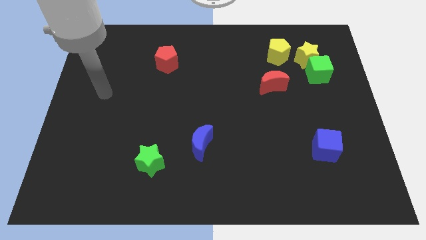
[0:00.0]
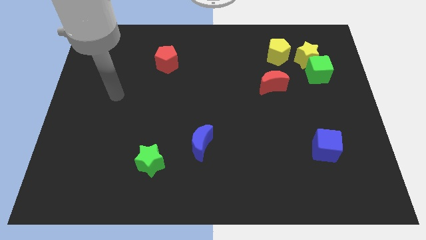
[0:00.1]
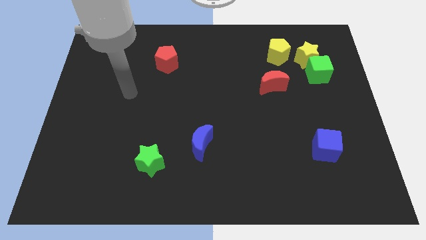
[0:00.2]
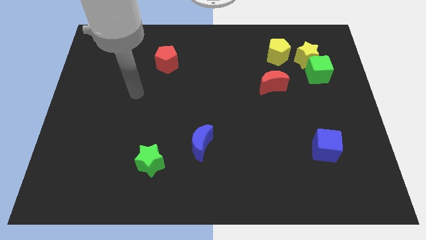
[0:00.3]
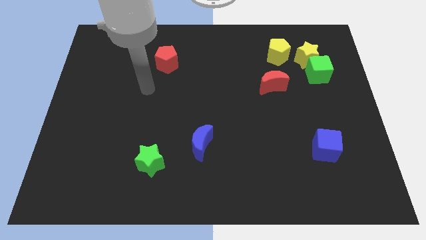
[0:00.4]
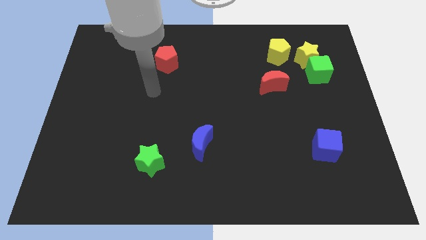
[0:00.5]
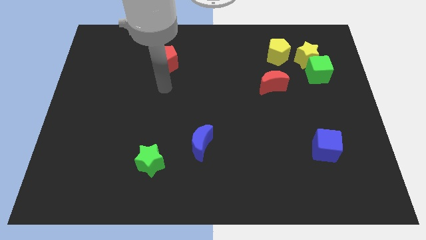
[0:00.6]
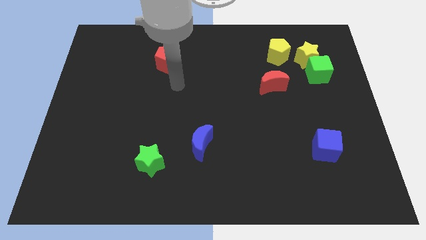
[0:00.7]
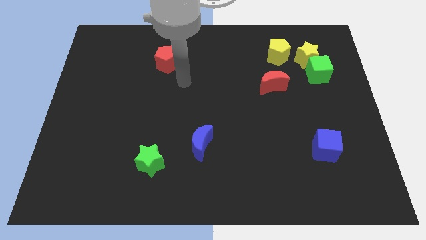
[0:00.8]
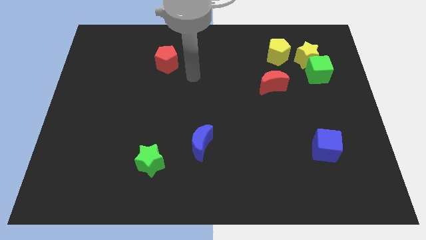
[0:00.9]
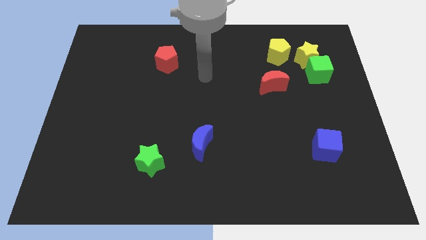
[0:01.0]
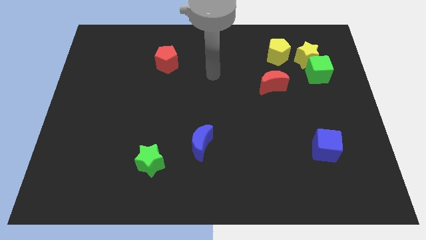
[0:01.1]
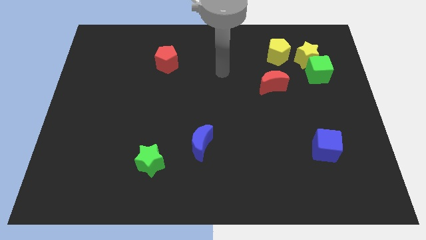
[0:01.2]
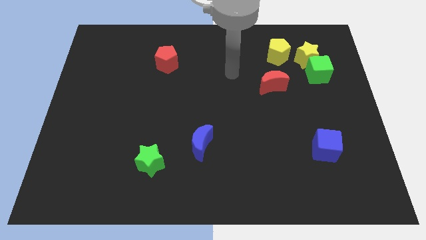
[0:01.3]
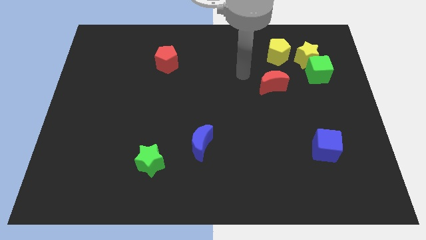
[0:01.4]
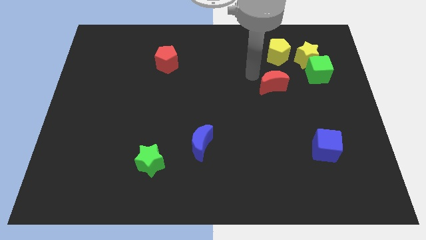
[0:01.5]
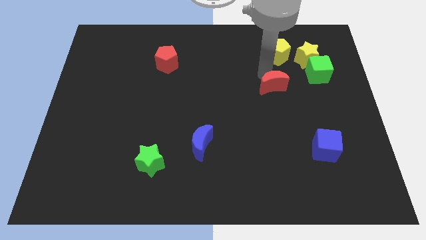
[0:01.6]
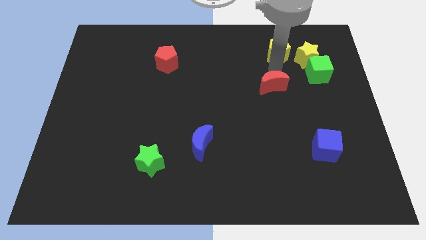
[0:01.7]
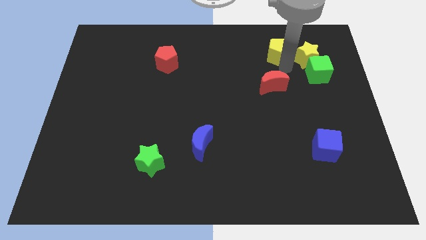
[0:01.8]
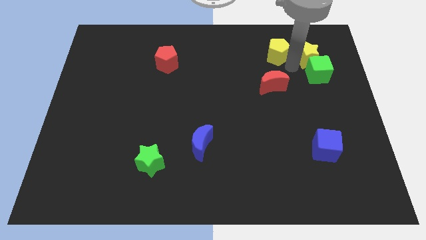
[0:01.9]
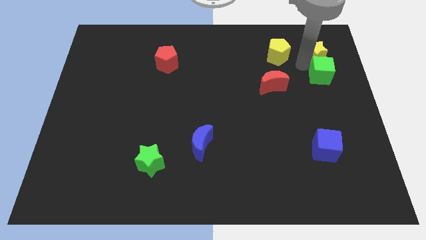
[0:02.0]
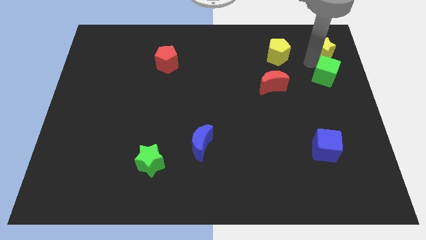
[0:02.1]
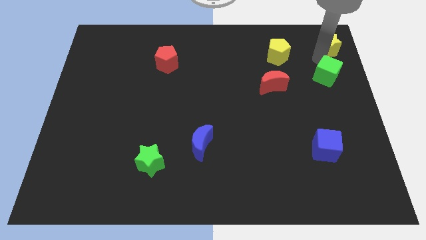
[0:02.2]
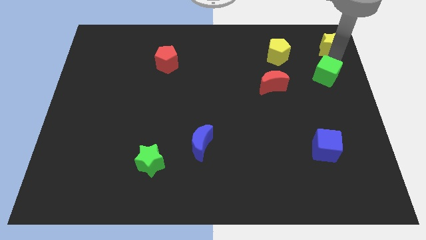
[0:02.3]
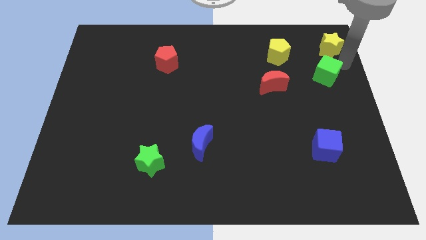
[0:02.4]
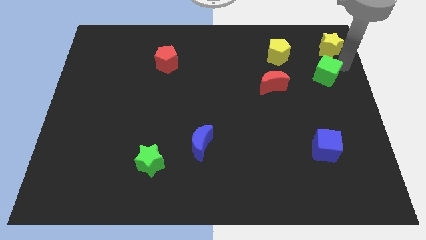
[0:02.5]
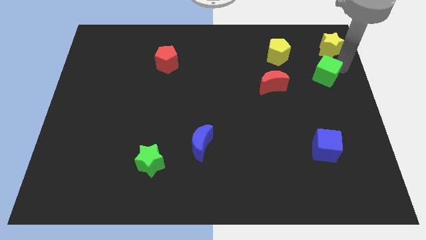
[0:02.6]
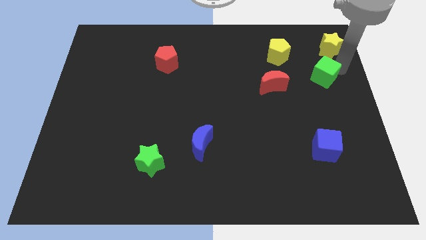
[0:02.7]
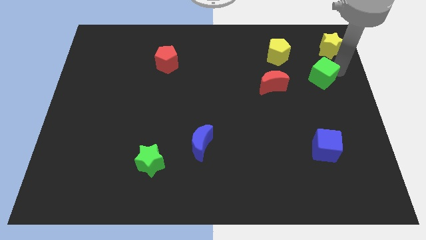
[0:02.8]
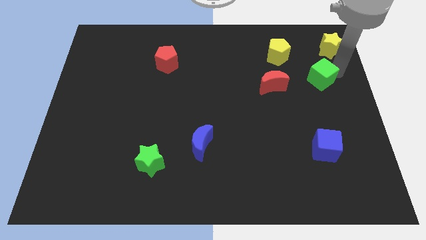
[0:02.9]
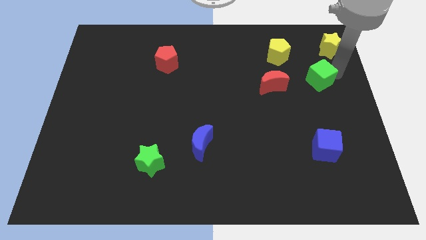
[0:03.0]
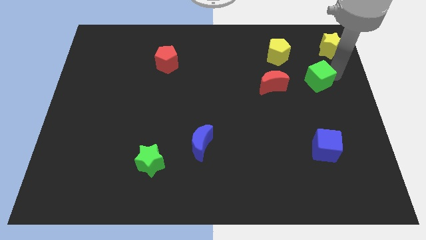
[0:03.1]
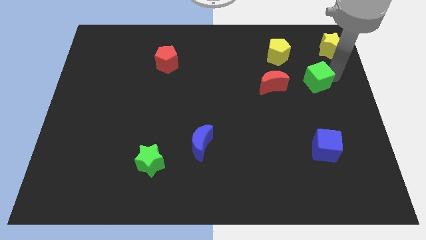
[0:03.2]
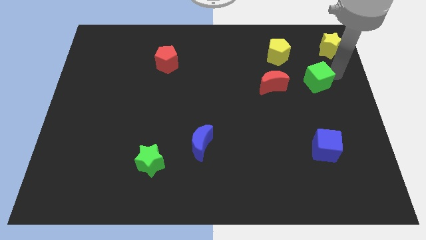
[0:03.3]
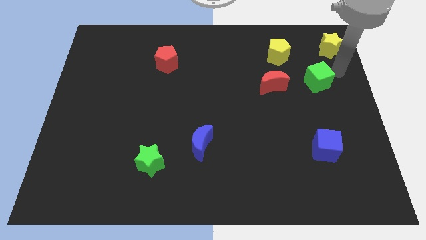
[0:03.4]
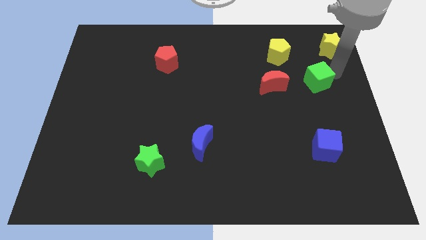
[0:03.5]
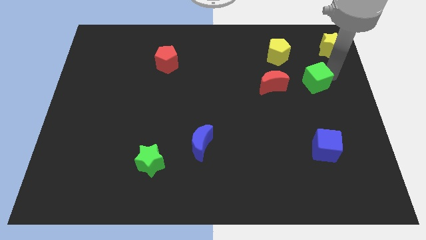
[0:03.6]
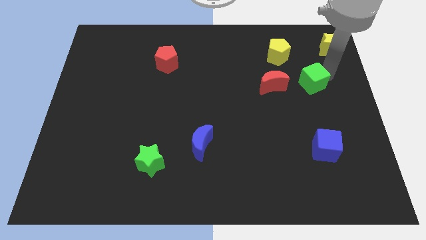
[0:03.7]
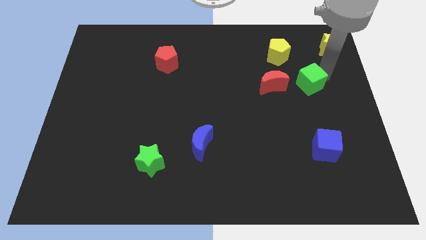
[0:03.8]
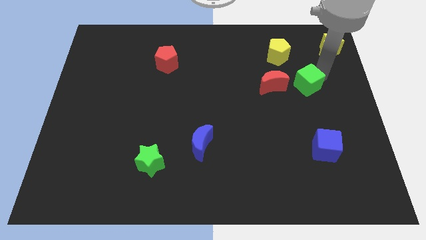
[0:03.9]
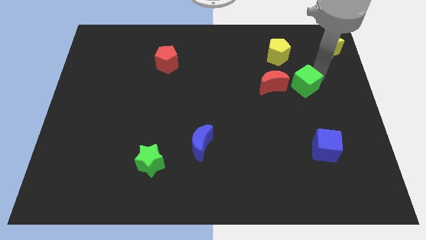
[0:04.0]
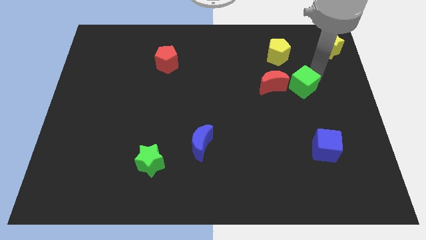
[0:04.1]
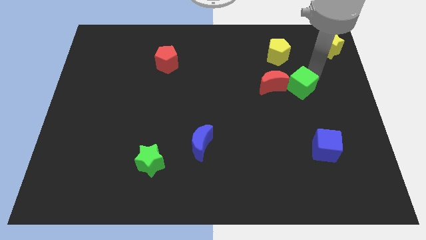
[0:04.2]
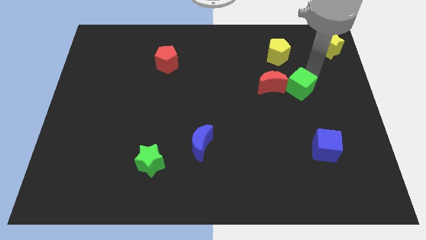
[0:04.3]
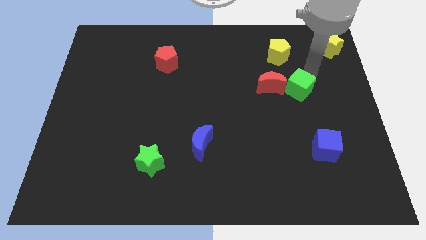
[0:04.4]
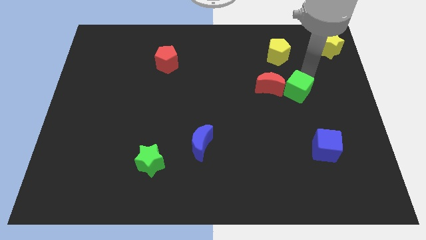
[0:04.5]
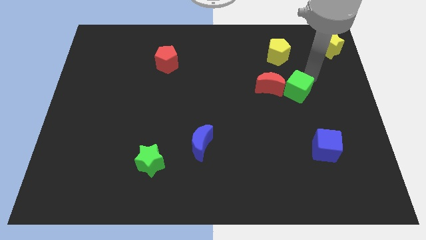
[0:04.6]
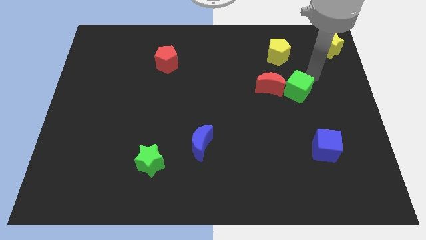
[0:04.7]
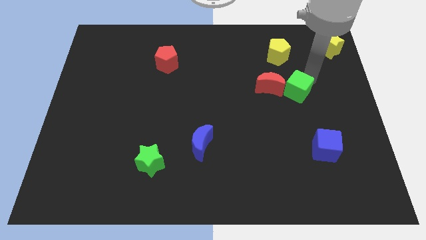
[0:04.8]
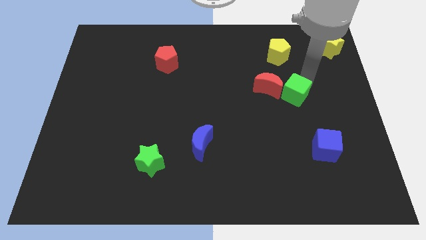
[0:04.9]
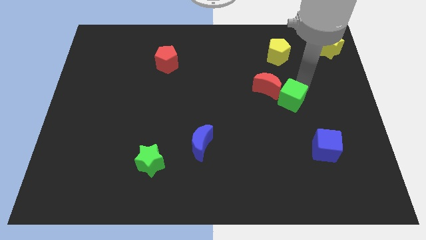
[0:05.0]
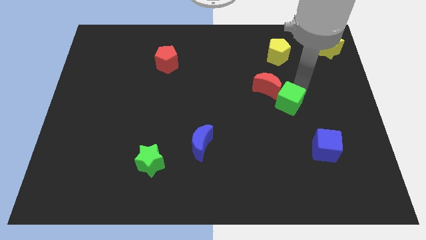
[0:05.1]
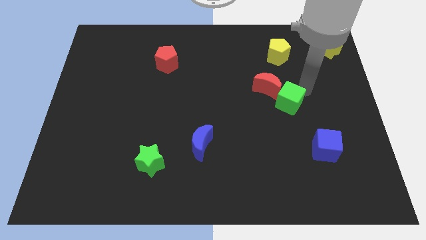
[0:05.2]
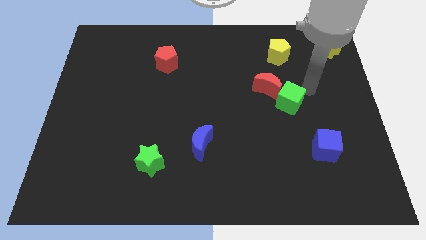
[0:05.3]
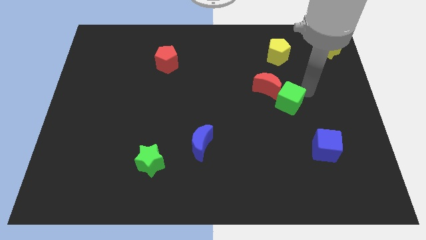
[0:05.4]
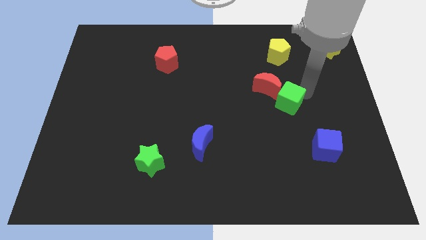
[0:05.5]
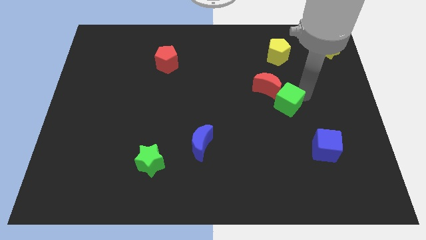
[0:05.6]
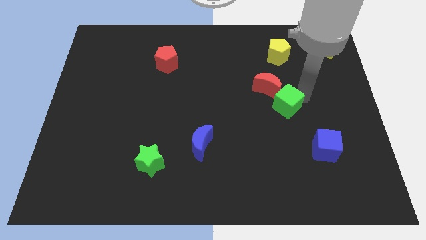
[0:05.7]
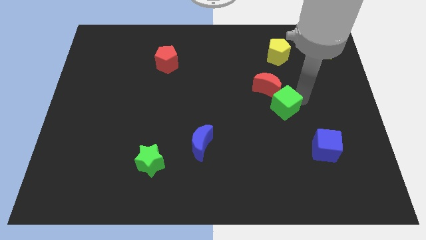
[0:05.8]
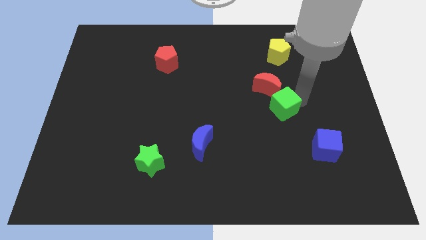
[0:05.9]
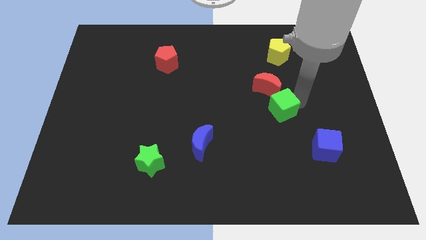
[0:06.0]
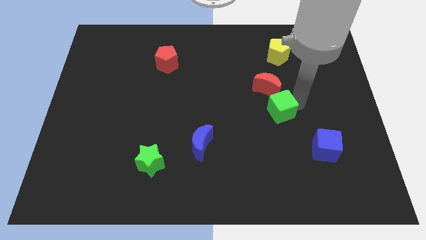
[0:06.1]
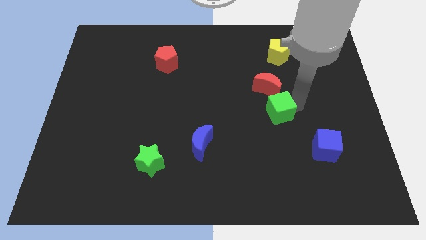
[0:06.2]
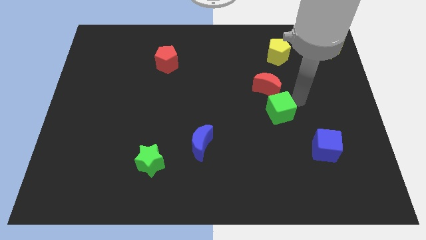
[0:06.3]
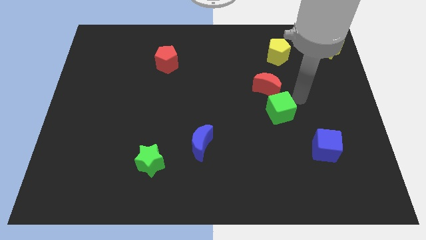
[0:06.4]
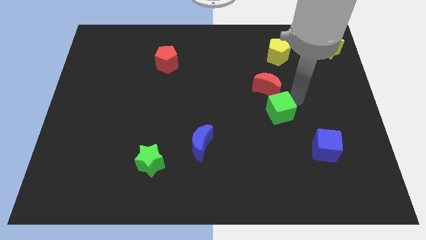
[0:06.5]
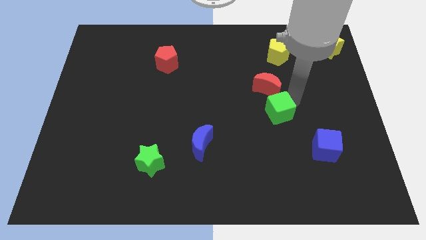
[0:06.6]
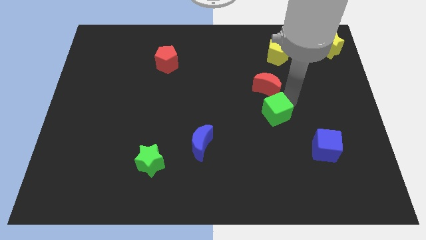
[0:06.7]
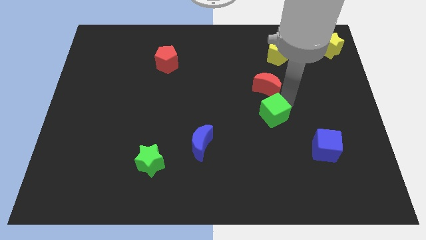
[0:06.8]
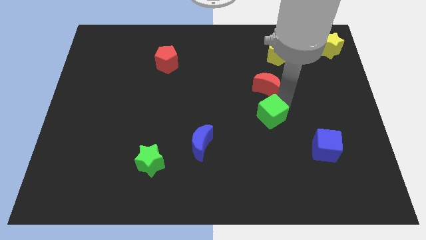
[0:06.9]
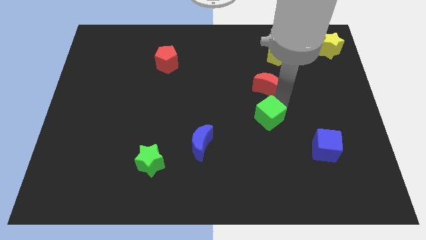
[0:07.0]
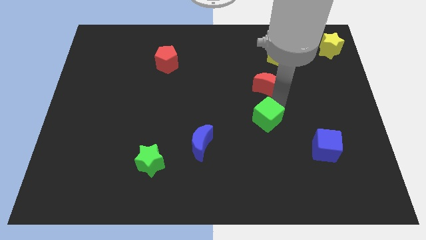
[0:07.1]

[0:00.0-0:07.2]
push the green cube down and then left

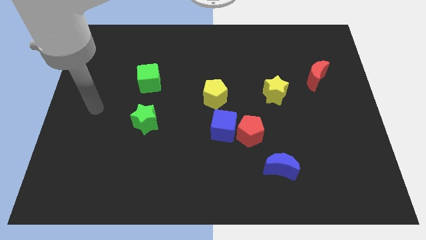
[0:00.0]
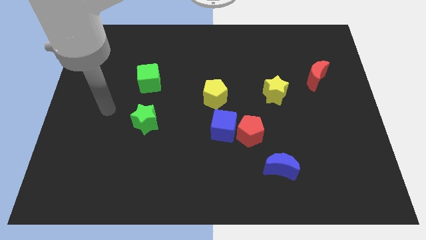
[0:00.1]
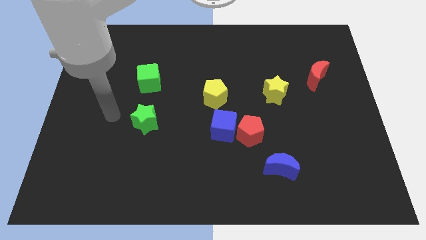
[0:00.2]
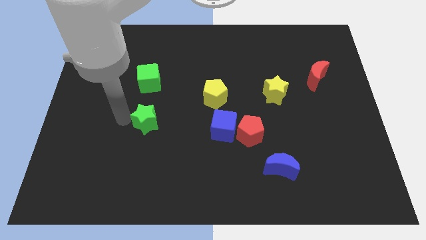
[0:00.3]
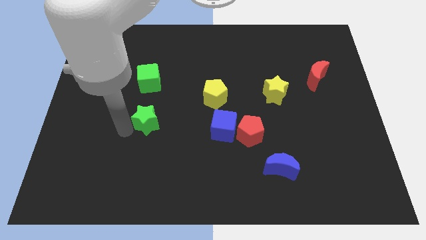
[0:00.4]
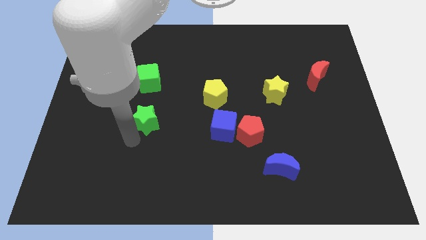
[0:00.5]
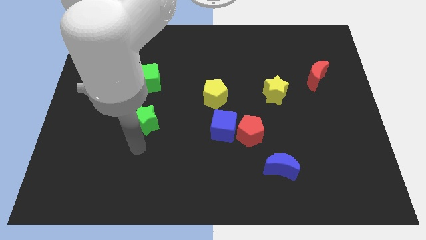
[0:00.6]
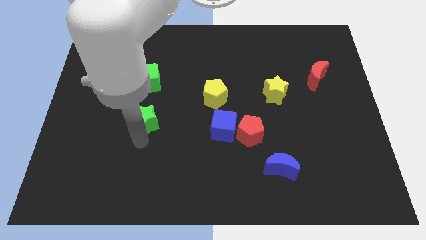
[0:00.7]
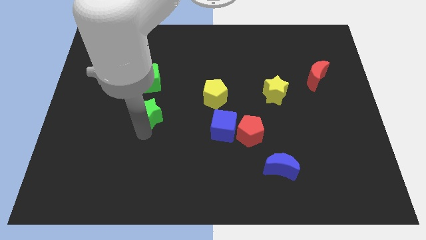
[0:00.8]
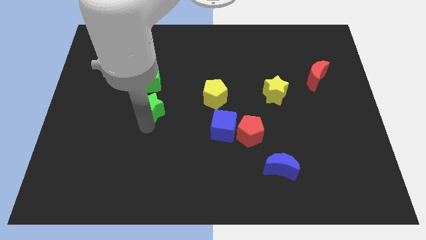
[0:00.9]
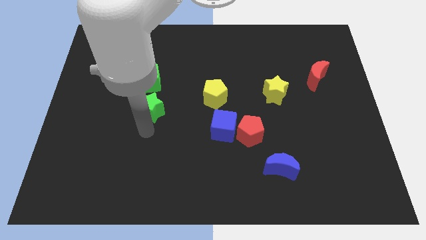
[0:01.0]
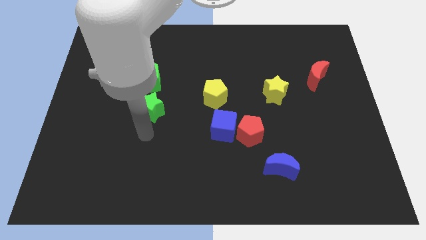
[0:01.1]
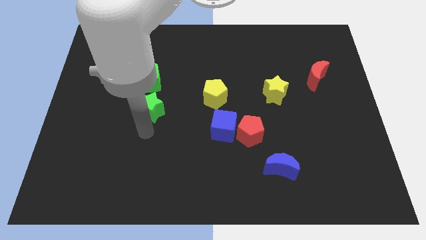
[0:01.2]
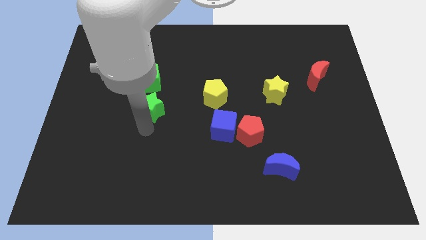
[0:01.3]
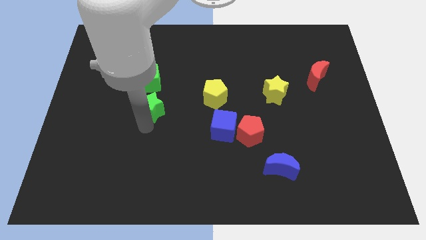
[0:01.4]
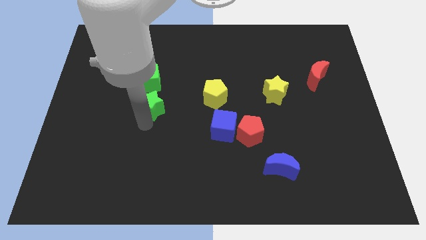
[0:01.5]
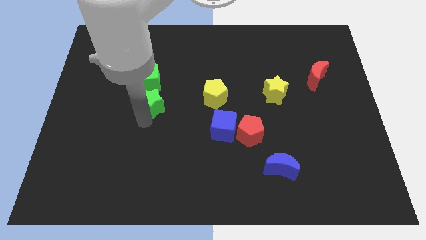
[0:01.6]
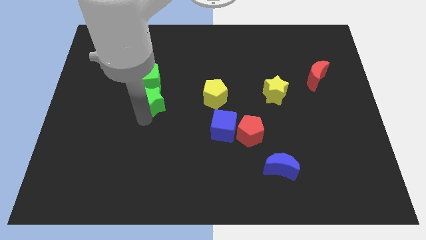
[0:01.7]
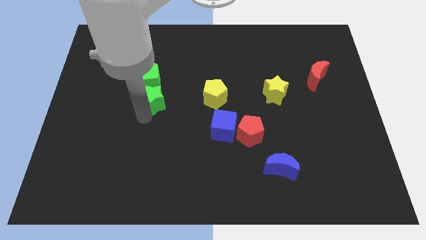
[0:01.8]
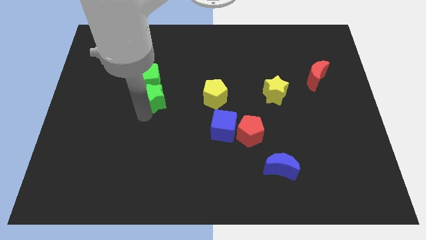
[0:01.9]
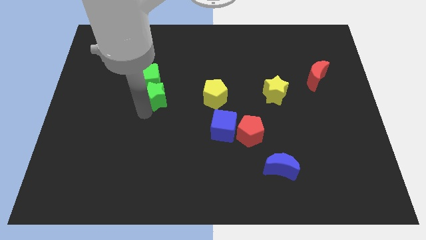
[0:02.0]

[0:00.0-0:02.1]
move the green star a little up
